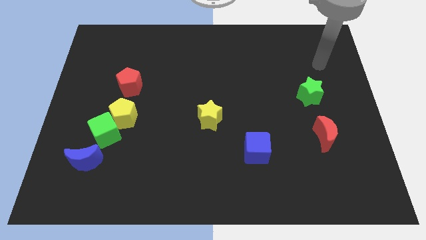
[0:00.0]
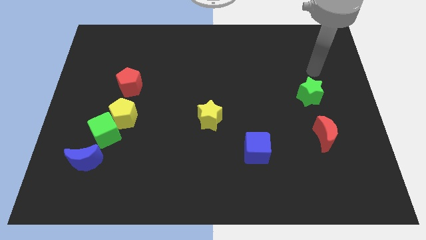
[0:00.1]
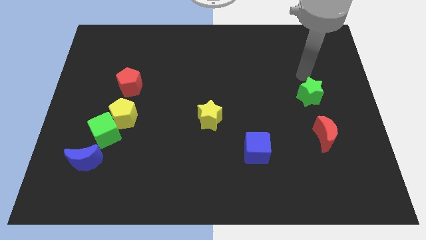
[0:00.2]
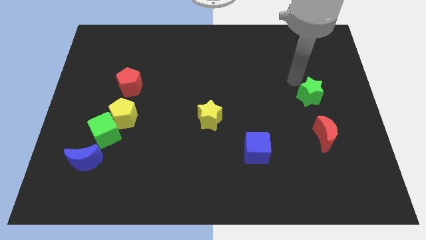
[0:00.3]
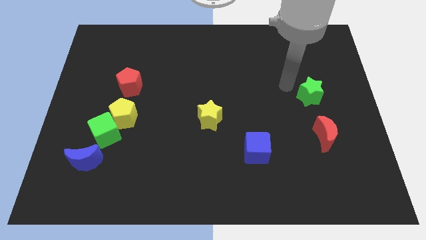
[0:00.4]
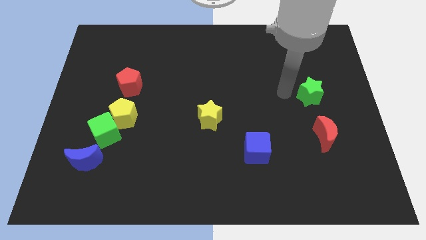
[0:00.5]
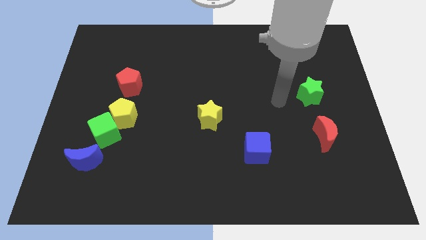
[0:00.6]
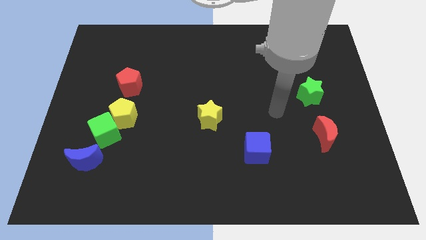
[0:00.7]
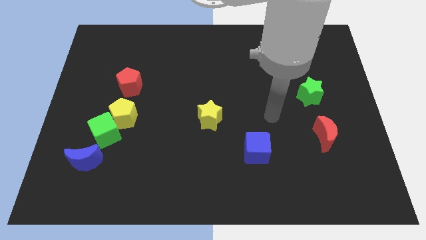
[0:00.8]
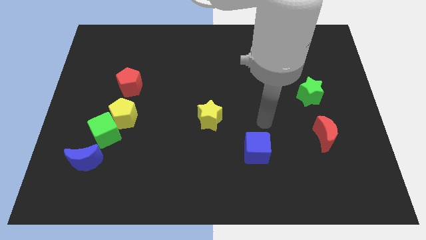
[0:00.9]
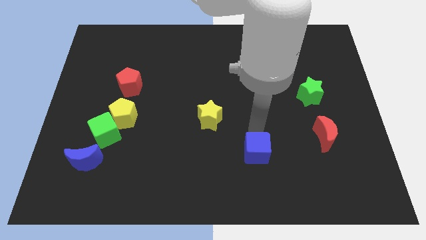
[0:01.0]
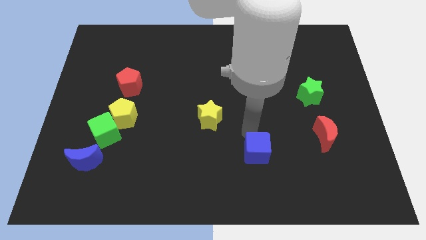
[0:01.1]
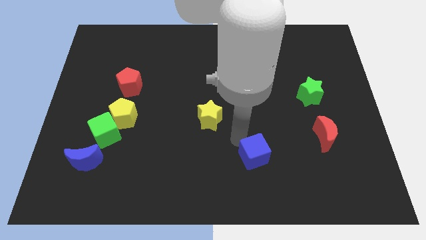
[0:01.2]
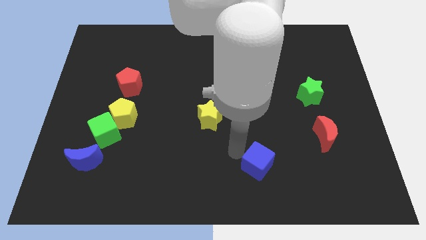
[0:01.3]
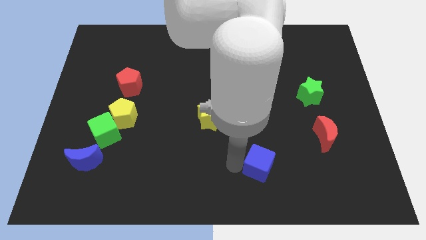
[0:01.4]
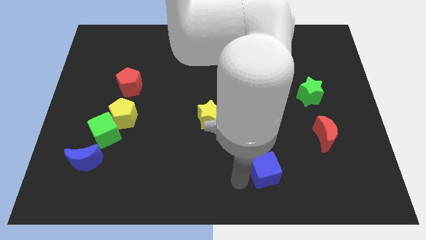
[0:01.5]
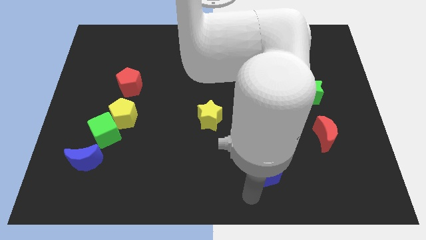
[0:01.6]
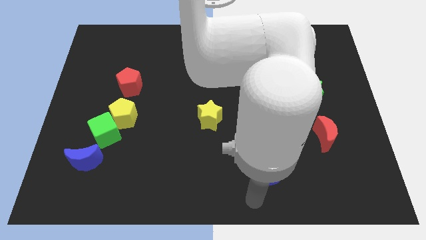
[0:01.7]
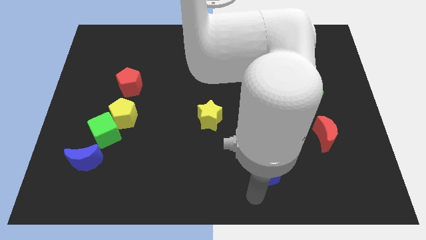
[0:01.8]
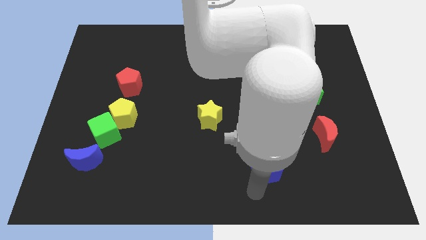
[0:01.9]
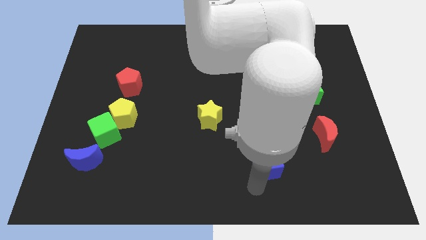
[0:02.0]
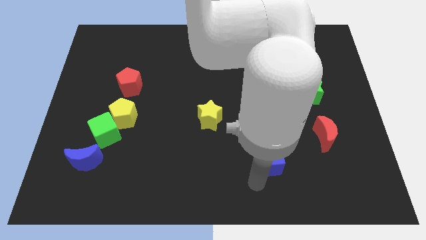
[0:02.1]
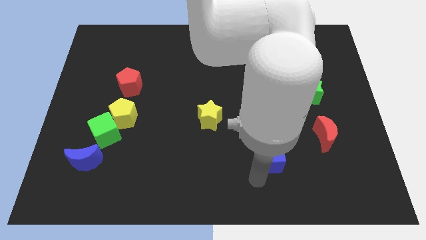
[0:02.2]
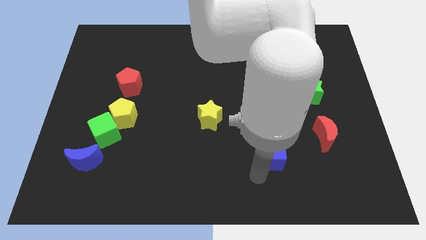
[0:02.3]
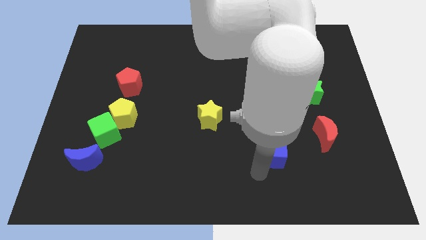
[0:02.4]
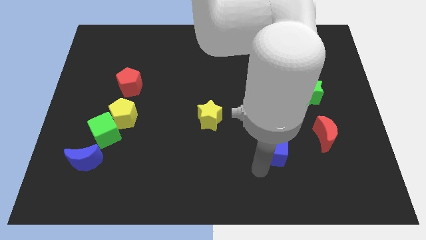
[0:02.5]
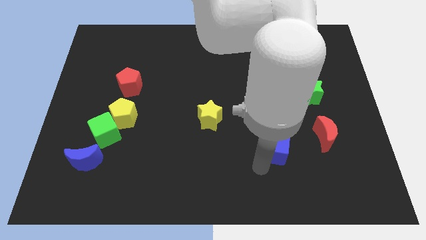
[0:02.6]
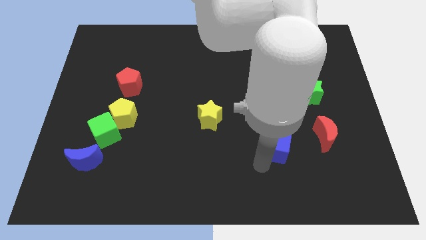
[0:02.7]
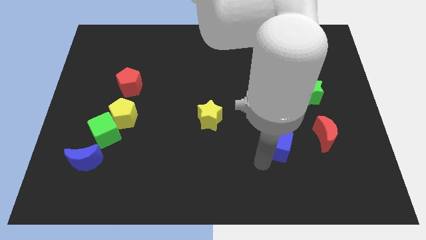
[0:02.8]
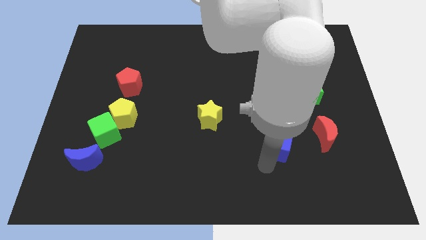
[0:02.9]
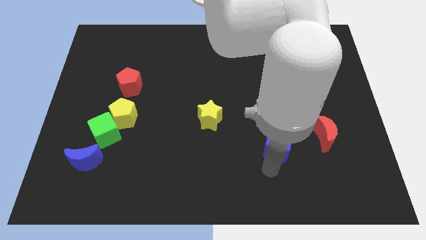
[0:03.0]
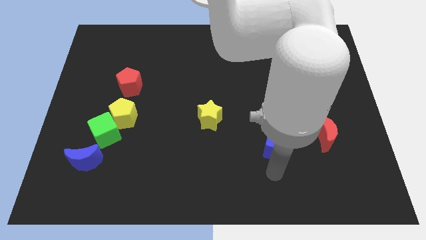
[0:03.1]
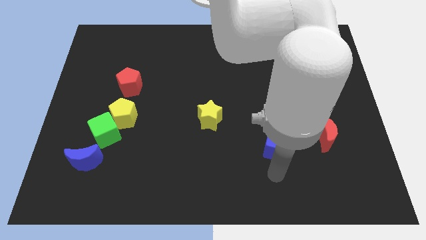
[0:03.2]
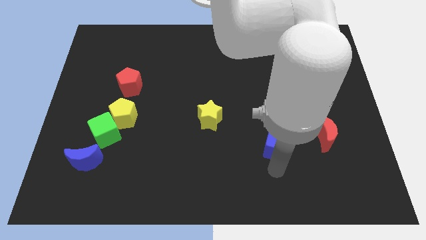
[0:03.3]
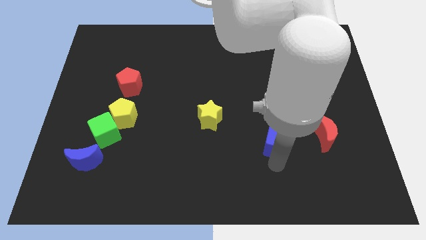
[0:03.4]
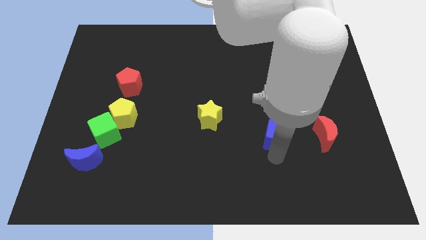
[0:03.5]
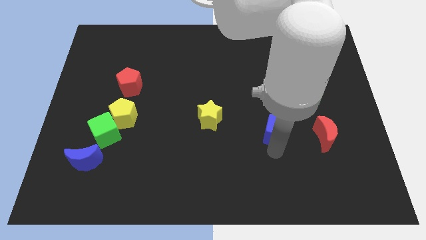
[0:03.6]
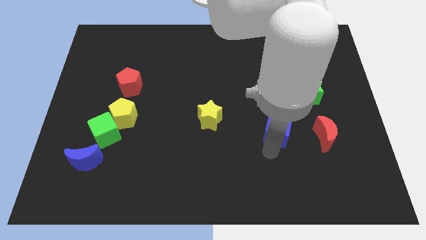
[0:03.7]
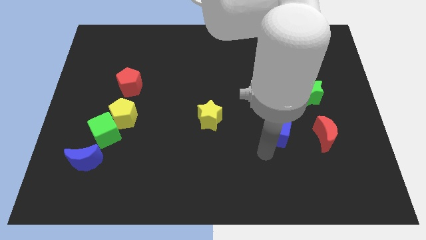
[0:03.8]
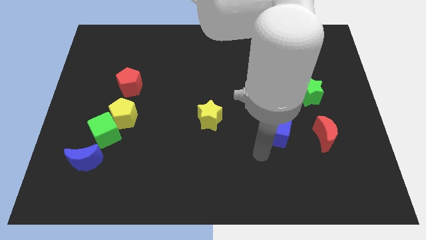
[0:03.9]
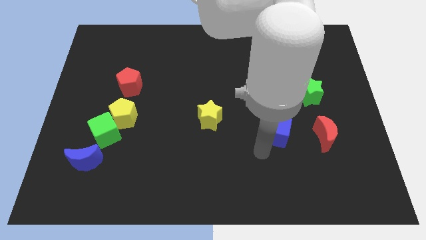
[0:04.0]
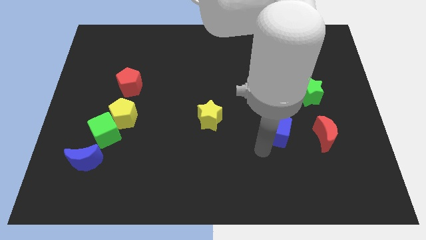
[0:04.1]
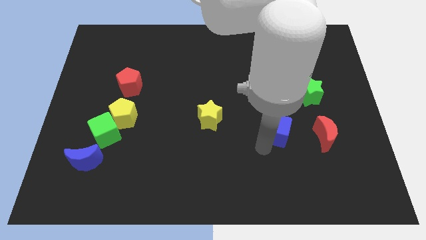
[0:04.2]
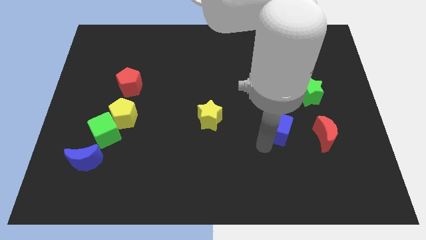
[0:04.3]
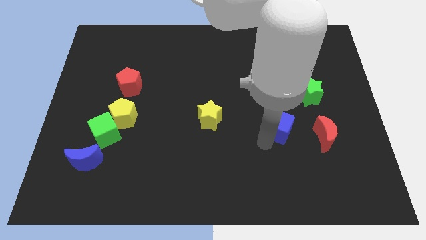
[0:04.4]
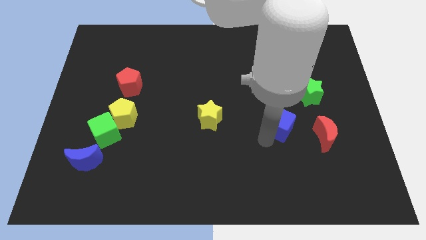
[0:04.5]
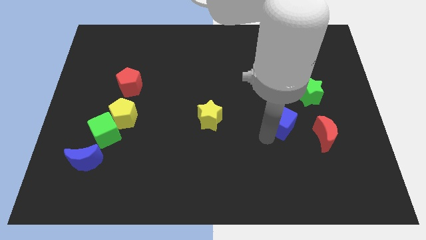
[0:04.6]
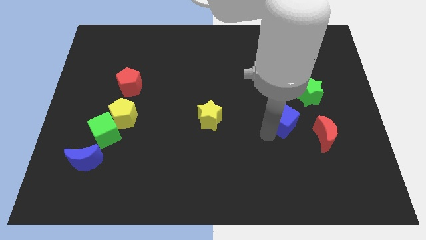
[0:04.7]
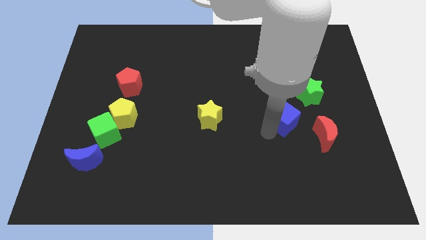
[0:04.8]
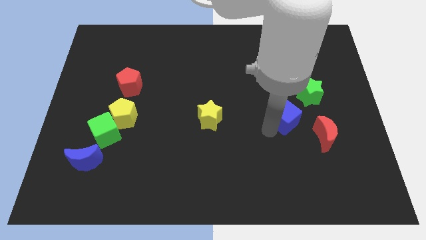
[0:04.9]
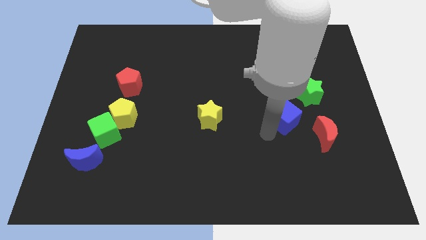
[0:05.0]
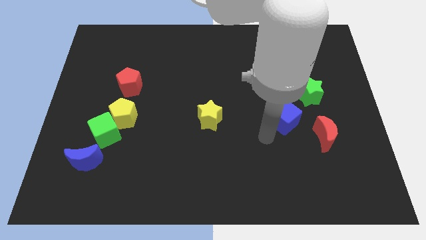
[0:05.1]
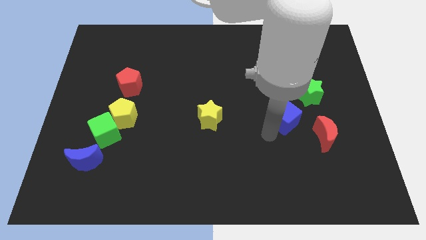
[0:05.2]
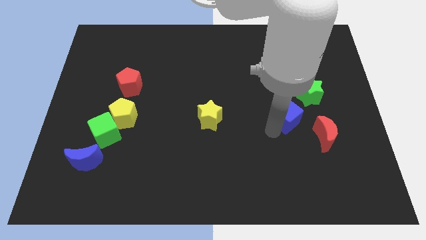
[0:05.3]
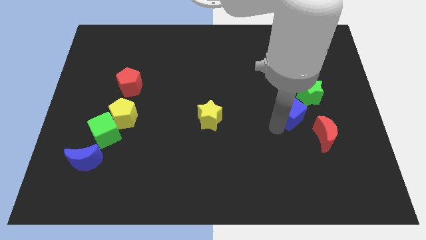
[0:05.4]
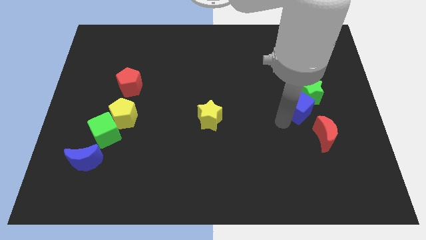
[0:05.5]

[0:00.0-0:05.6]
slide the blue cube to the green star

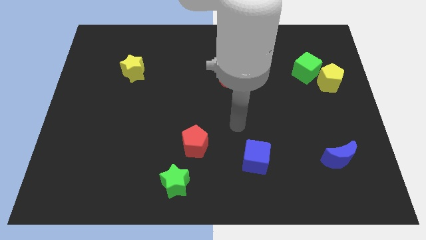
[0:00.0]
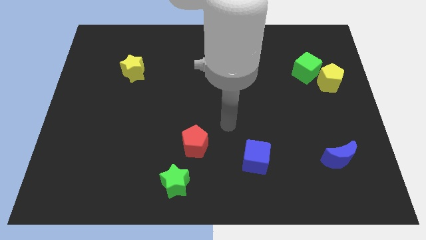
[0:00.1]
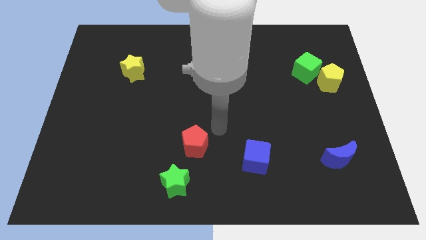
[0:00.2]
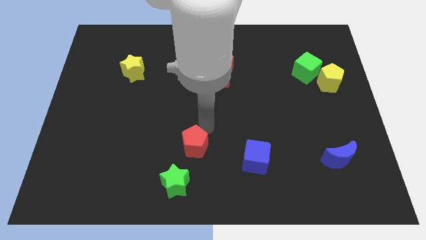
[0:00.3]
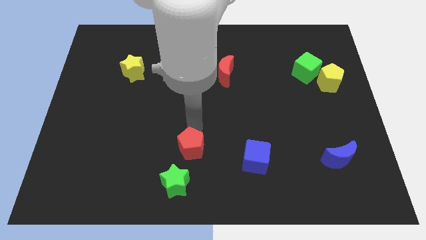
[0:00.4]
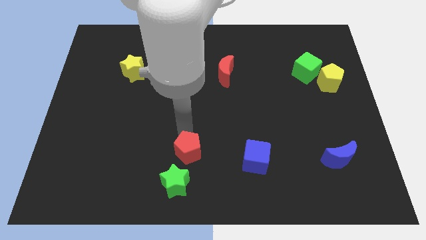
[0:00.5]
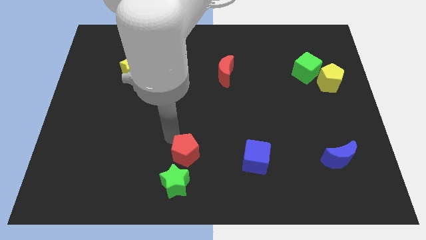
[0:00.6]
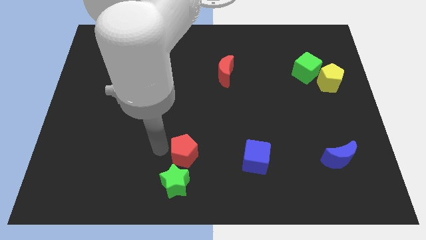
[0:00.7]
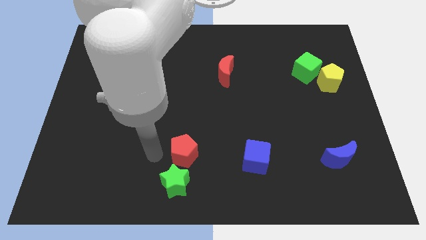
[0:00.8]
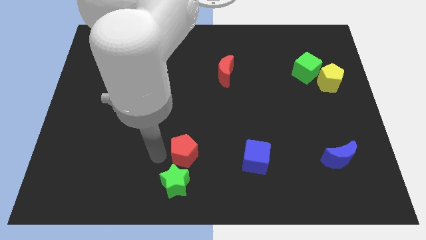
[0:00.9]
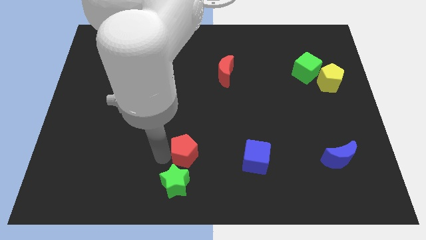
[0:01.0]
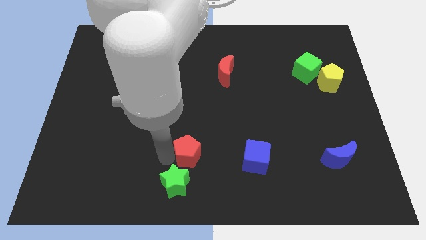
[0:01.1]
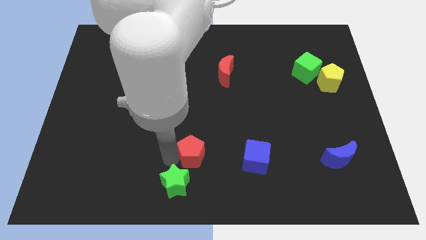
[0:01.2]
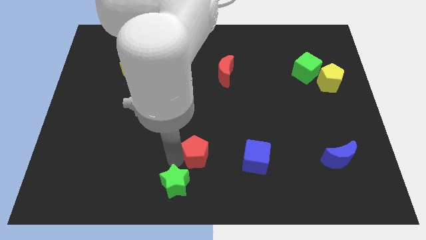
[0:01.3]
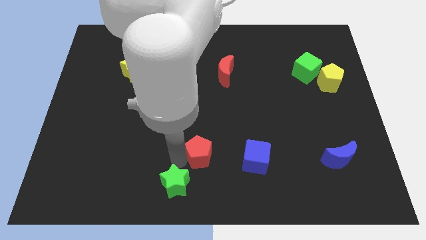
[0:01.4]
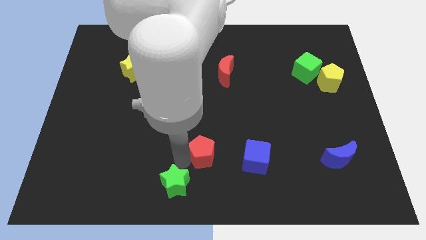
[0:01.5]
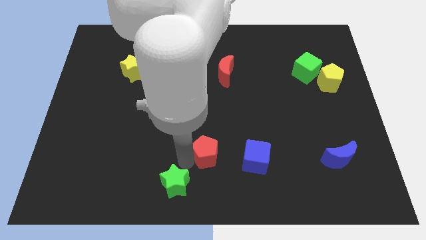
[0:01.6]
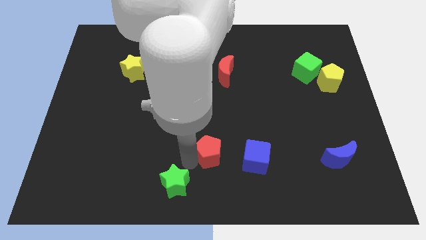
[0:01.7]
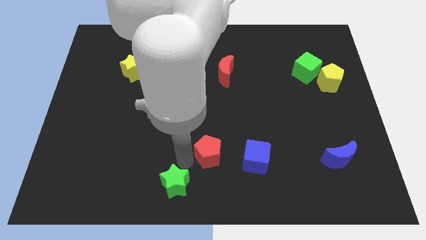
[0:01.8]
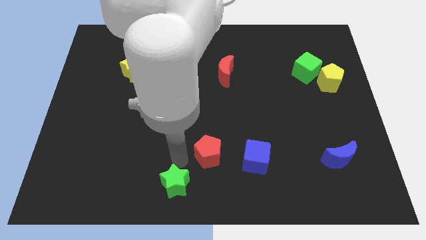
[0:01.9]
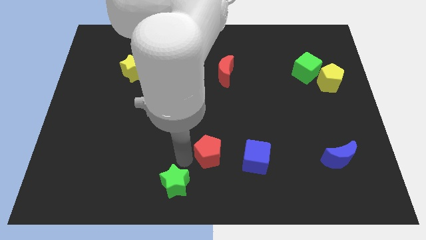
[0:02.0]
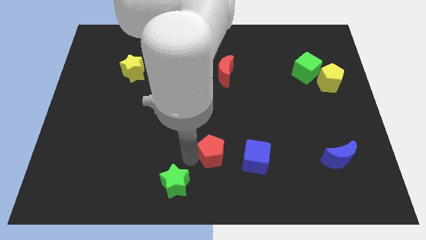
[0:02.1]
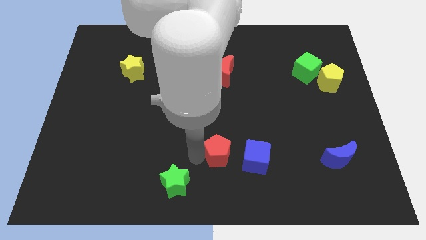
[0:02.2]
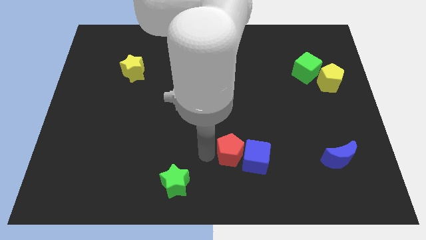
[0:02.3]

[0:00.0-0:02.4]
move the red pentagon to the blue cube

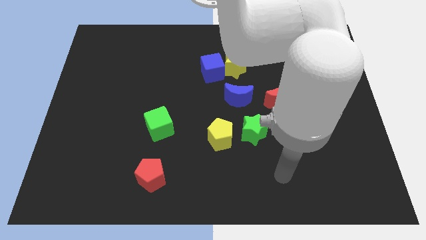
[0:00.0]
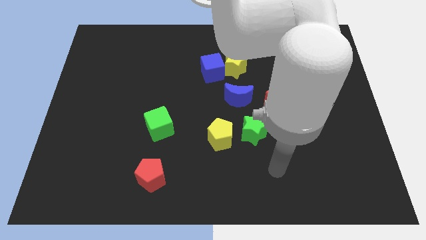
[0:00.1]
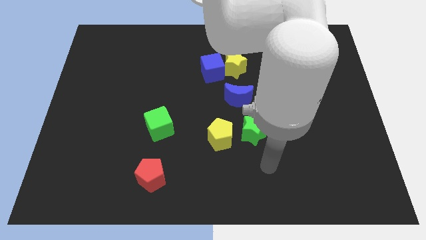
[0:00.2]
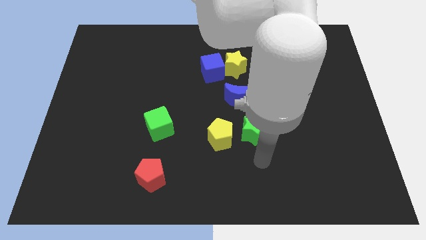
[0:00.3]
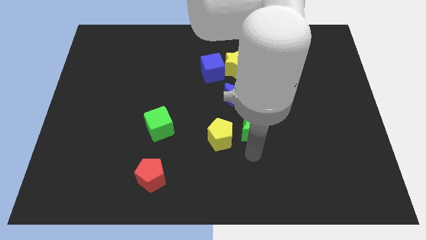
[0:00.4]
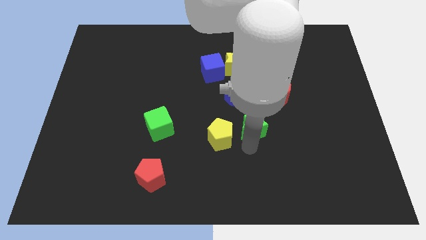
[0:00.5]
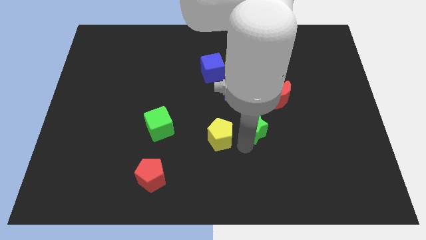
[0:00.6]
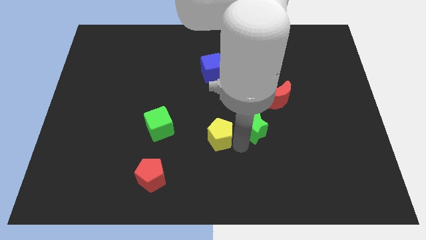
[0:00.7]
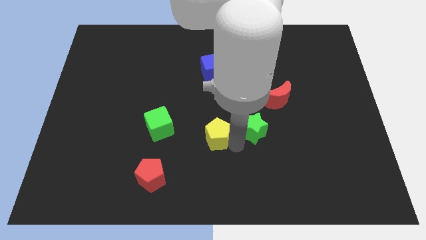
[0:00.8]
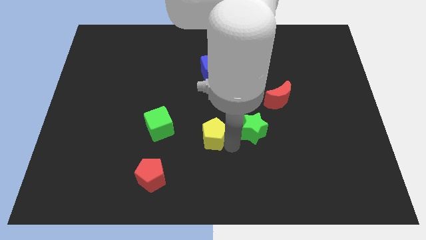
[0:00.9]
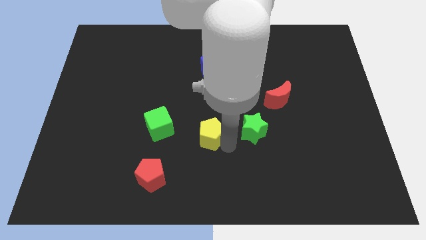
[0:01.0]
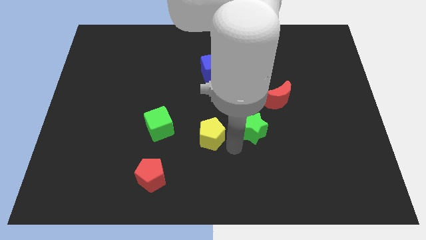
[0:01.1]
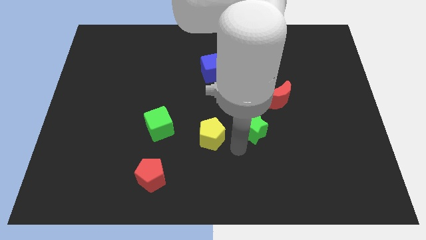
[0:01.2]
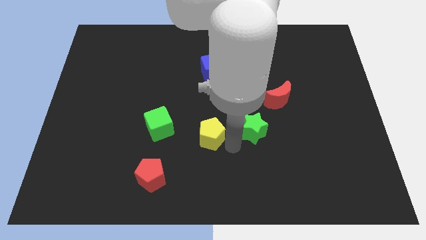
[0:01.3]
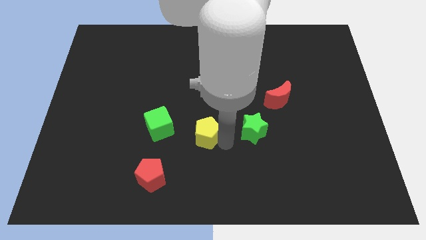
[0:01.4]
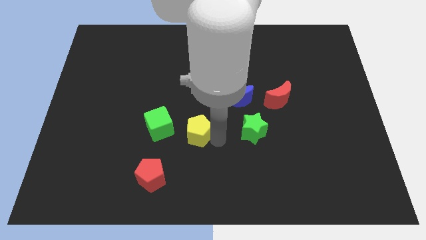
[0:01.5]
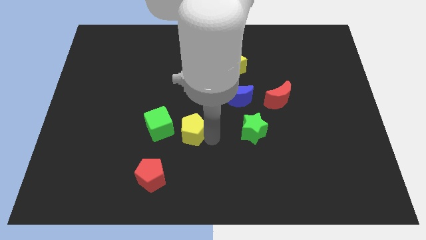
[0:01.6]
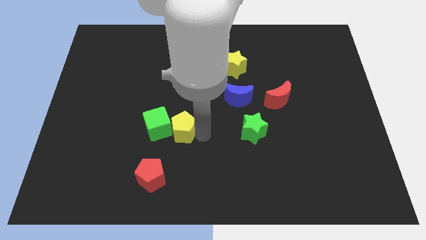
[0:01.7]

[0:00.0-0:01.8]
slide the yellow pentagon close to the green cube
